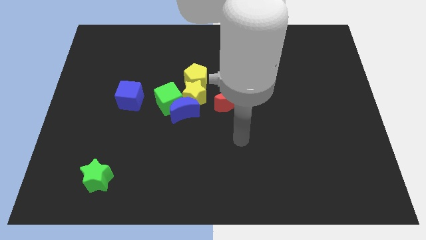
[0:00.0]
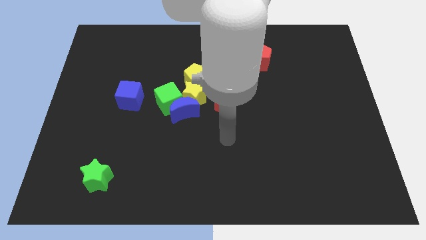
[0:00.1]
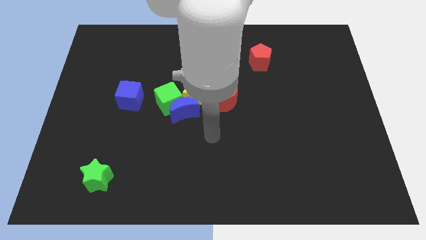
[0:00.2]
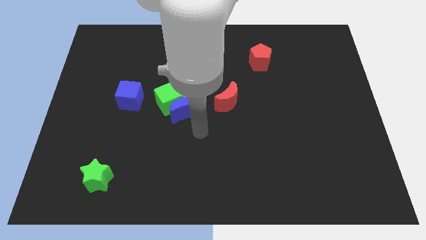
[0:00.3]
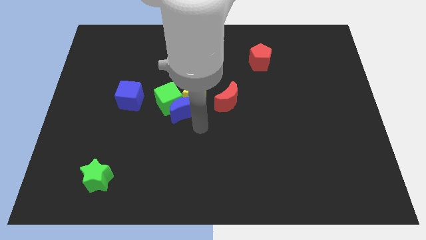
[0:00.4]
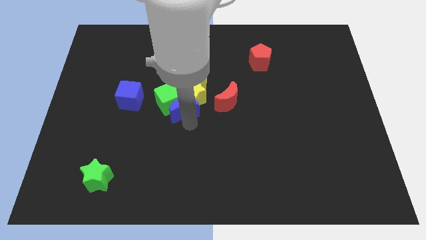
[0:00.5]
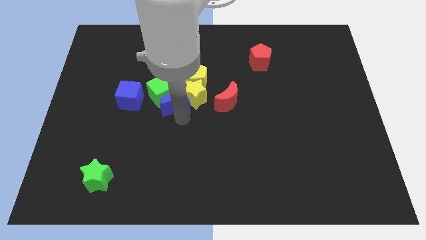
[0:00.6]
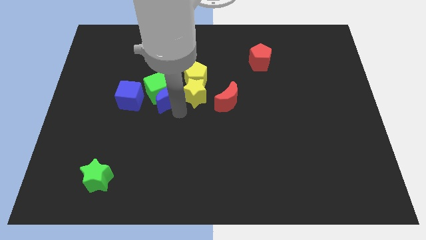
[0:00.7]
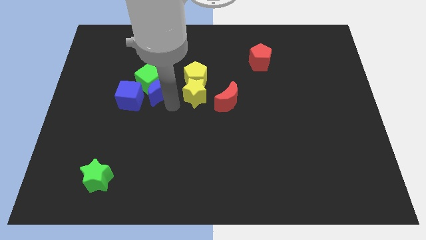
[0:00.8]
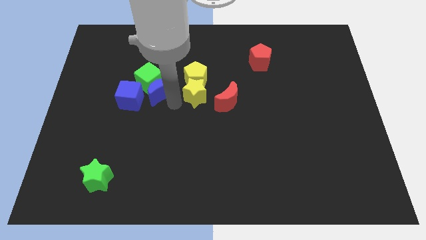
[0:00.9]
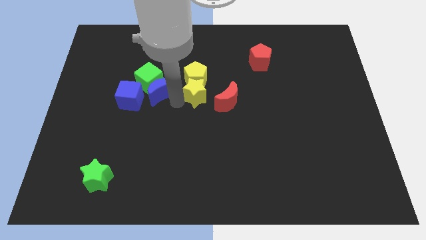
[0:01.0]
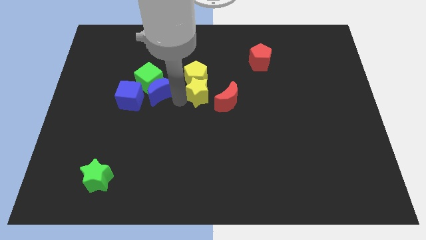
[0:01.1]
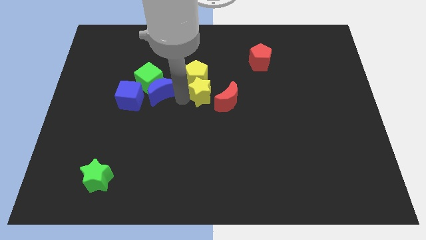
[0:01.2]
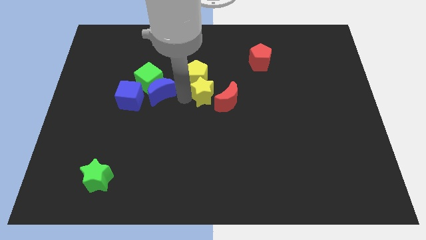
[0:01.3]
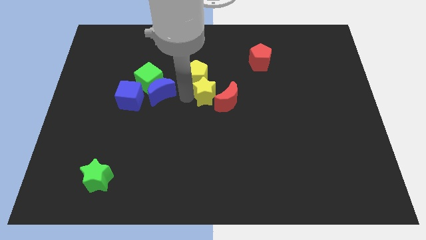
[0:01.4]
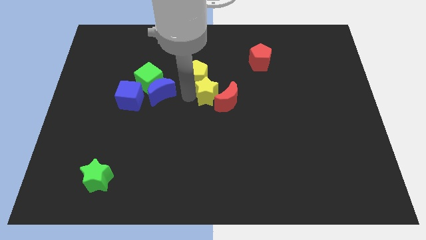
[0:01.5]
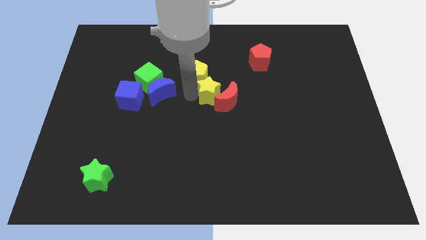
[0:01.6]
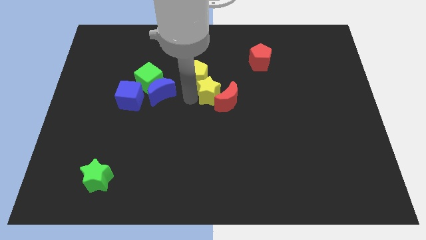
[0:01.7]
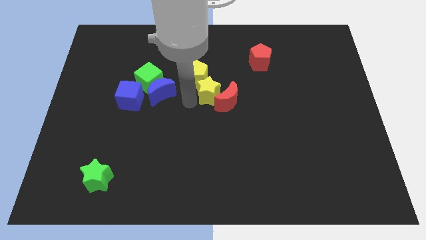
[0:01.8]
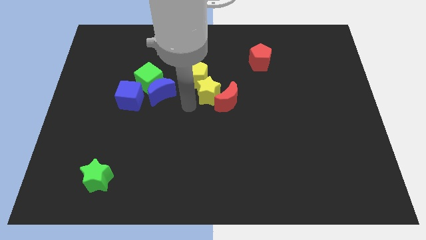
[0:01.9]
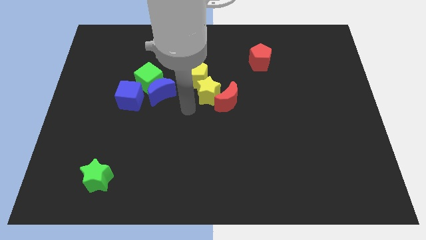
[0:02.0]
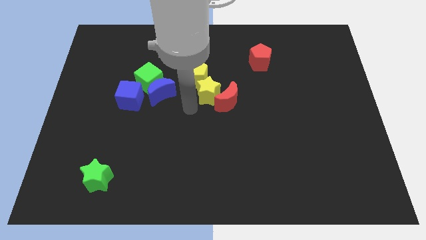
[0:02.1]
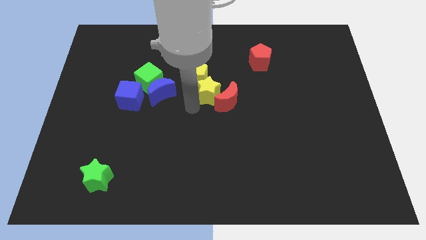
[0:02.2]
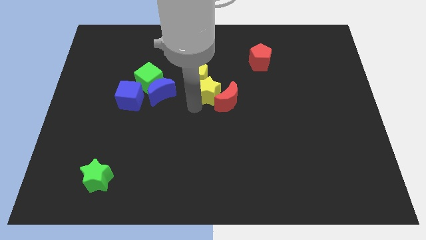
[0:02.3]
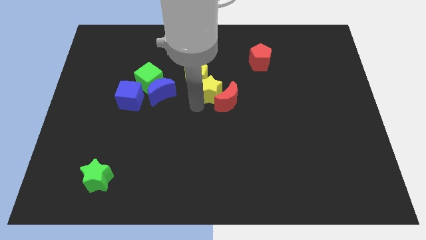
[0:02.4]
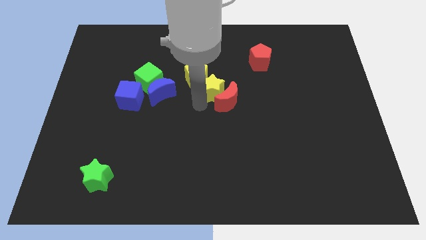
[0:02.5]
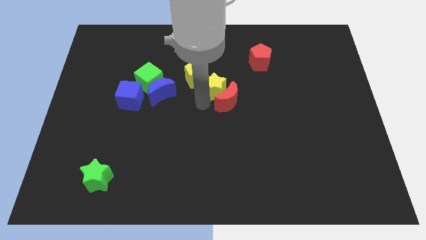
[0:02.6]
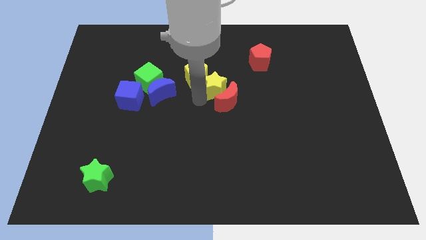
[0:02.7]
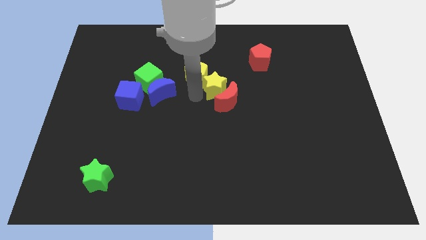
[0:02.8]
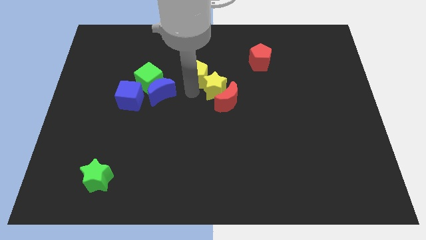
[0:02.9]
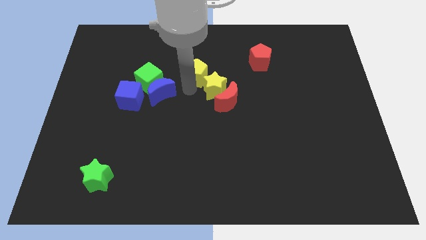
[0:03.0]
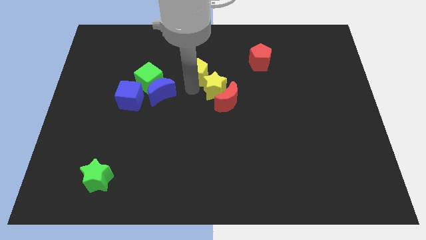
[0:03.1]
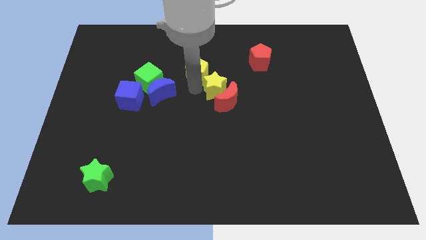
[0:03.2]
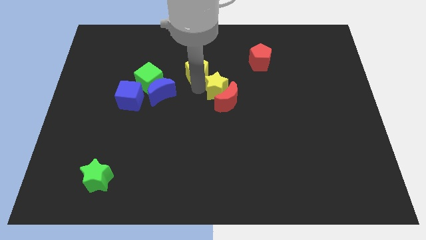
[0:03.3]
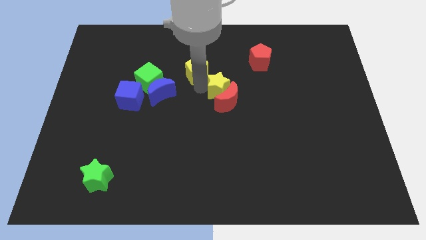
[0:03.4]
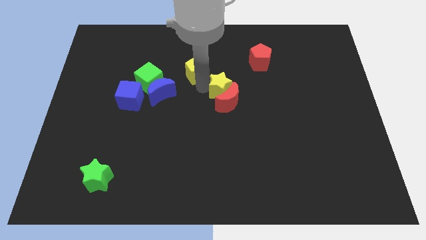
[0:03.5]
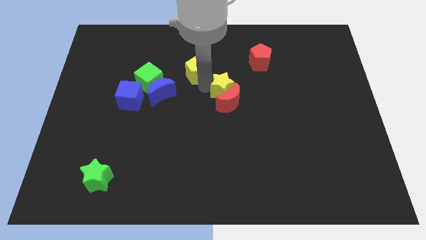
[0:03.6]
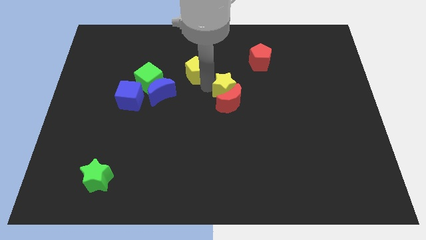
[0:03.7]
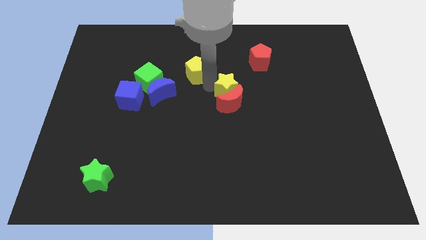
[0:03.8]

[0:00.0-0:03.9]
pull the yellow star apart from the group

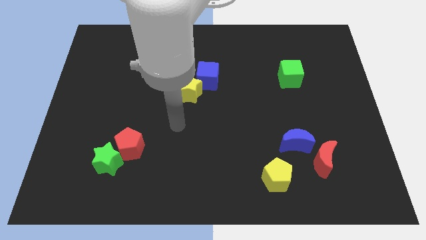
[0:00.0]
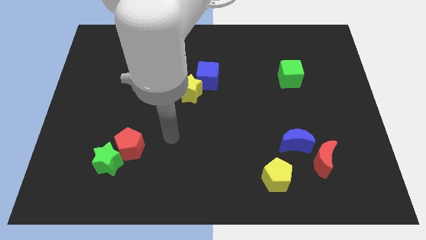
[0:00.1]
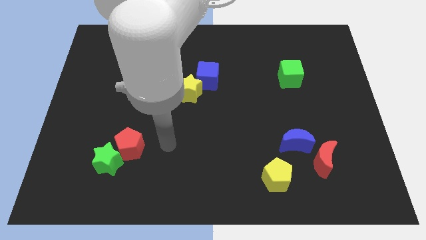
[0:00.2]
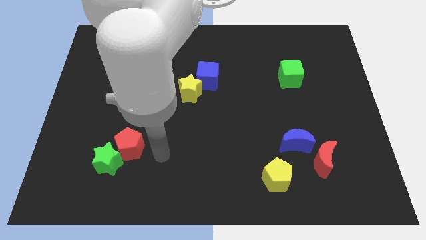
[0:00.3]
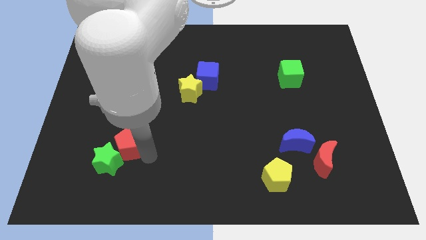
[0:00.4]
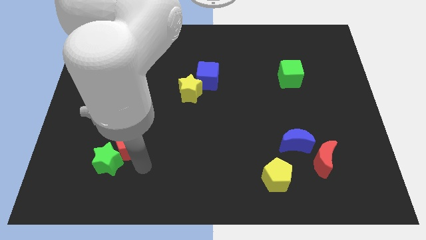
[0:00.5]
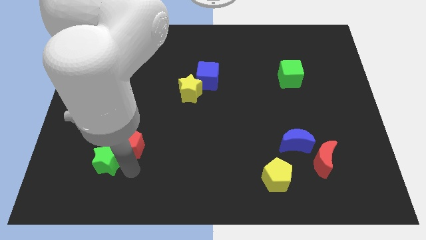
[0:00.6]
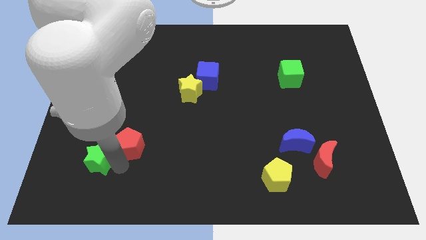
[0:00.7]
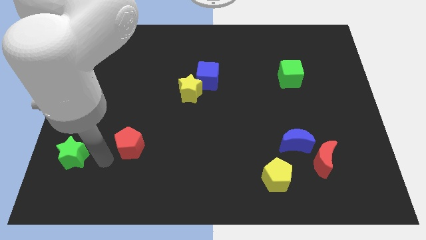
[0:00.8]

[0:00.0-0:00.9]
move the red pentagon away from the green star

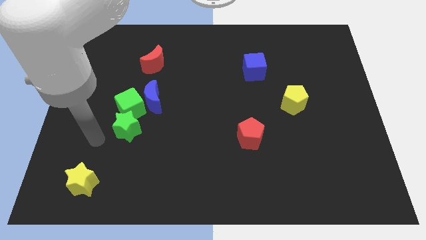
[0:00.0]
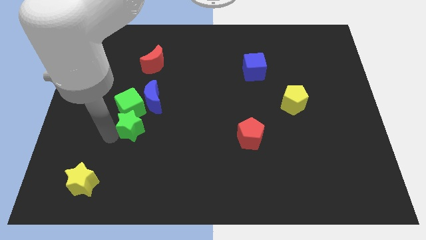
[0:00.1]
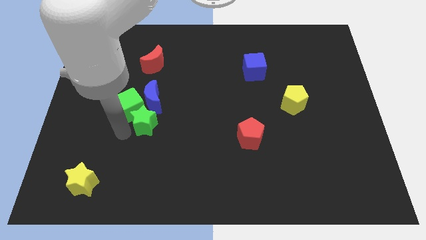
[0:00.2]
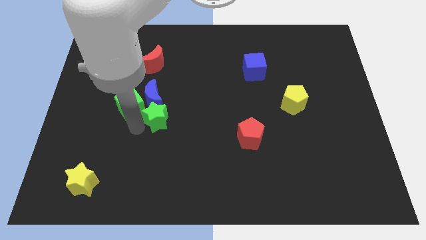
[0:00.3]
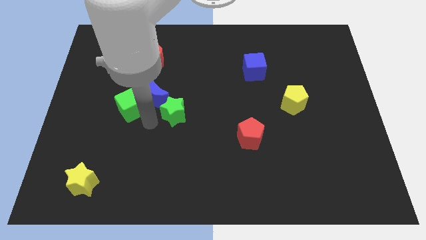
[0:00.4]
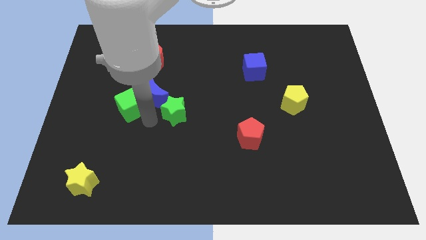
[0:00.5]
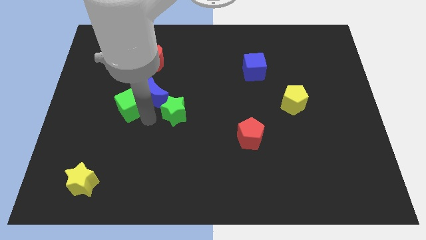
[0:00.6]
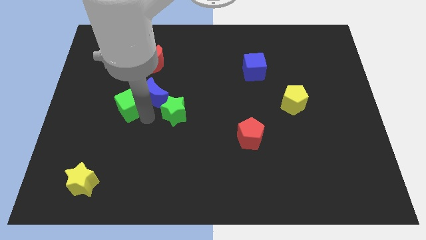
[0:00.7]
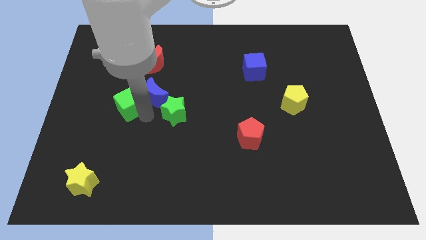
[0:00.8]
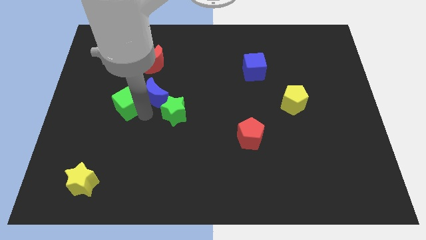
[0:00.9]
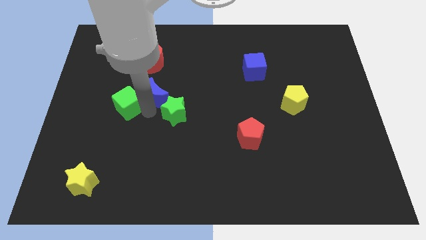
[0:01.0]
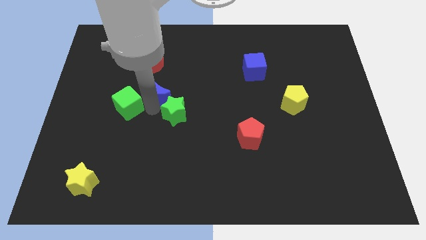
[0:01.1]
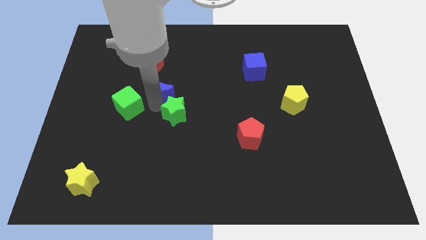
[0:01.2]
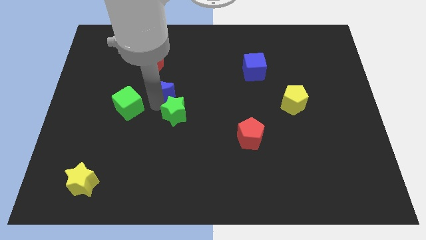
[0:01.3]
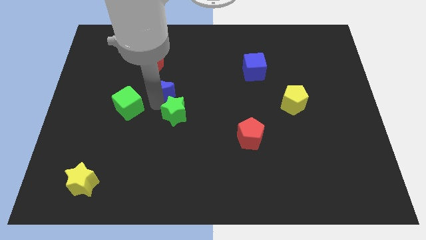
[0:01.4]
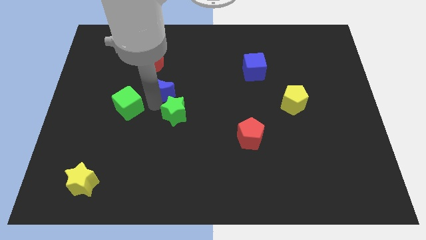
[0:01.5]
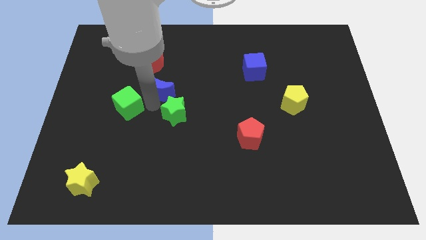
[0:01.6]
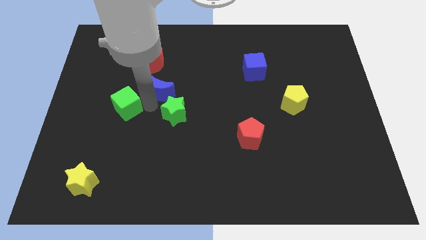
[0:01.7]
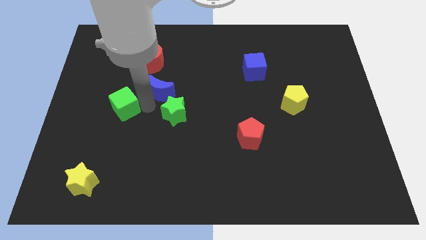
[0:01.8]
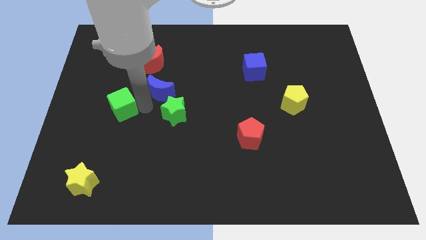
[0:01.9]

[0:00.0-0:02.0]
move the green cube away from the blue moon and green star

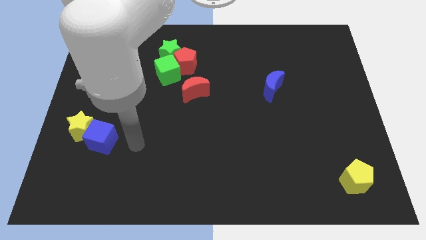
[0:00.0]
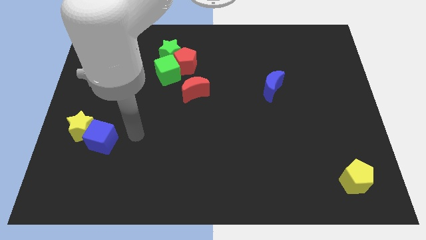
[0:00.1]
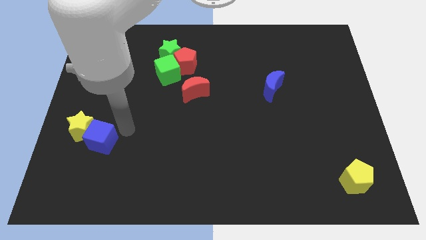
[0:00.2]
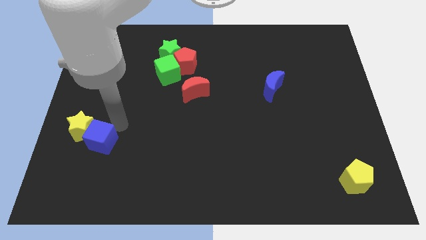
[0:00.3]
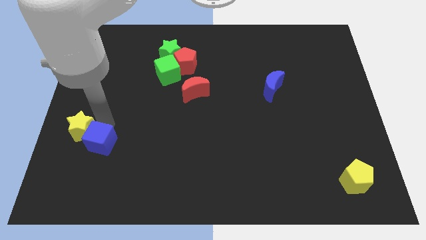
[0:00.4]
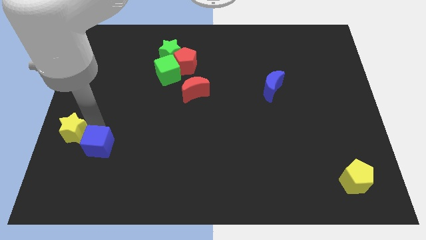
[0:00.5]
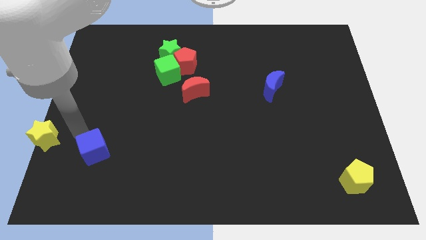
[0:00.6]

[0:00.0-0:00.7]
separate the blue cube from the yellow star

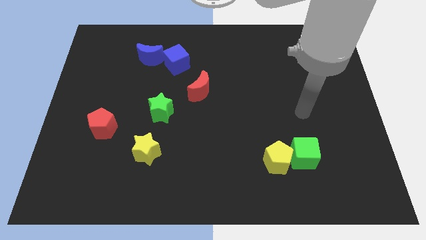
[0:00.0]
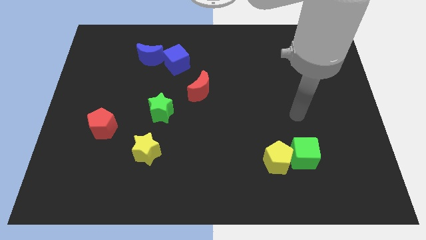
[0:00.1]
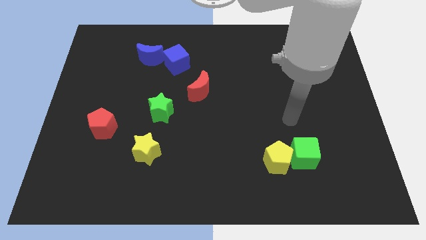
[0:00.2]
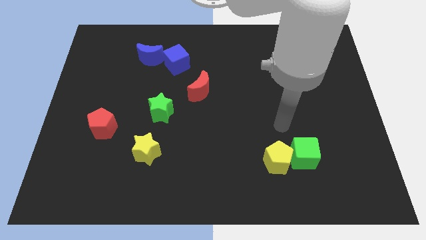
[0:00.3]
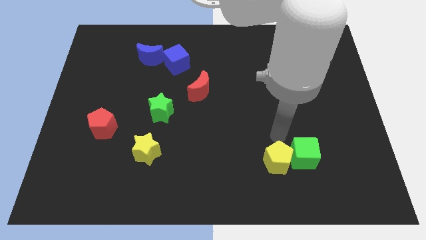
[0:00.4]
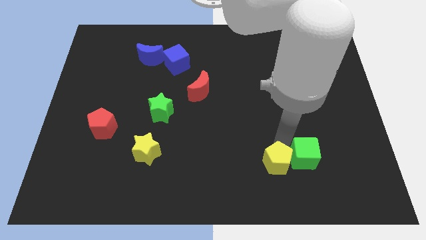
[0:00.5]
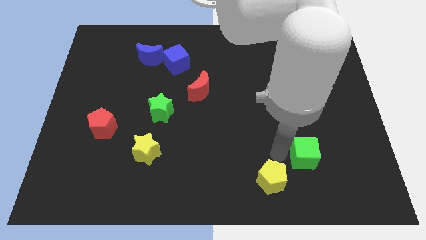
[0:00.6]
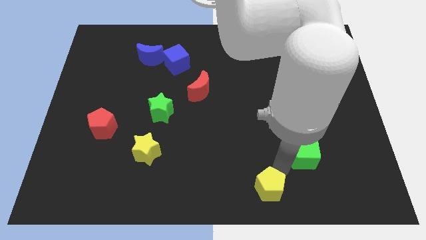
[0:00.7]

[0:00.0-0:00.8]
pull the green cube apart from the yellow pentagon

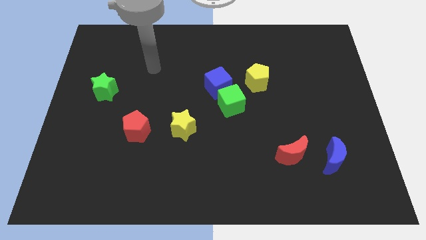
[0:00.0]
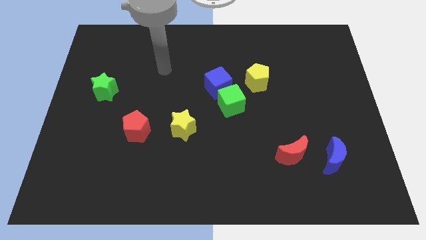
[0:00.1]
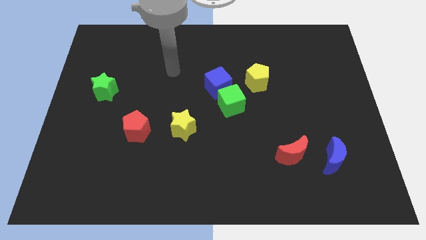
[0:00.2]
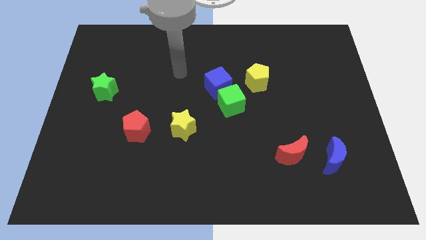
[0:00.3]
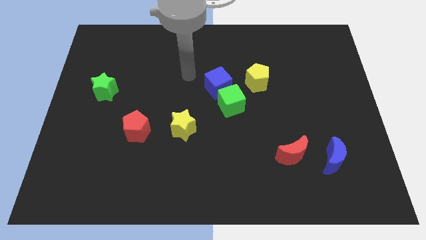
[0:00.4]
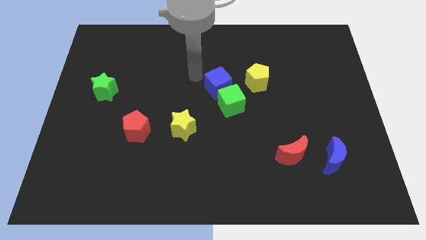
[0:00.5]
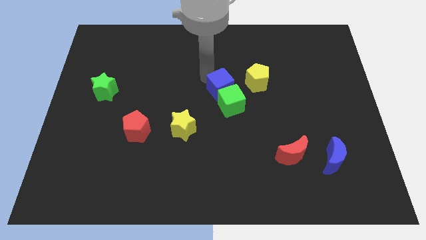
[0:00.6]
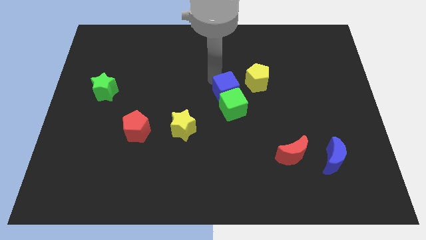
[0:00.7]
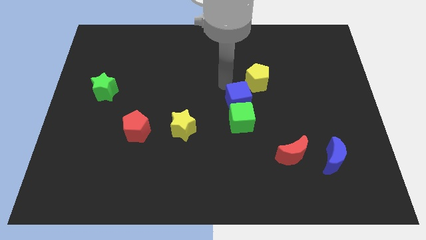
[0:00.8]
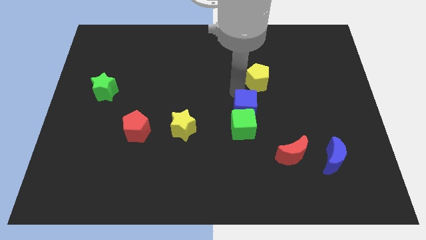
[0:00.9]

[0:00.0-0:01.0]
move the green cube away from the blue cube and yellow pentagon
